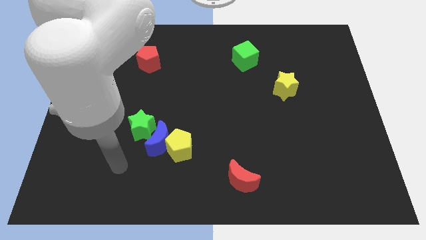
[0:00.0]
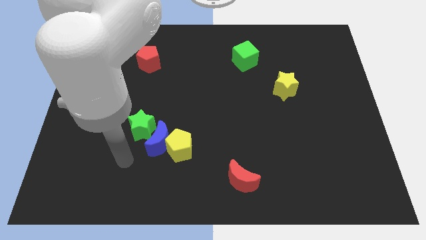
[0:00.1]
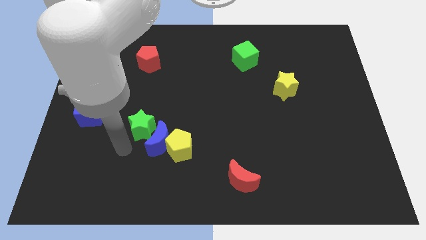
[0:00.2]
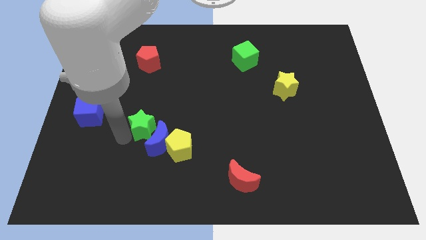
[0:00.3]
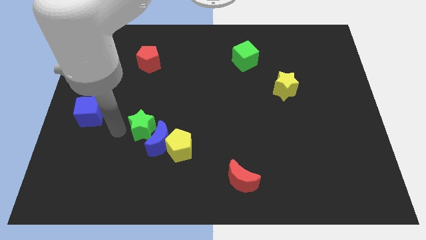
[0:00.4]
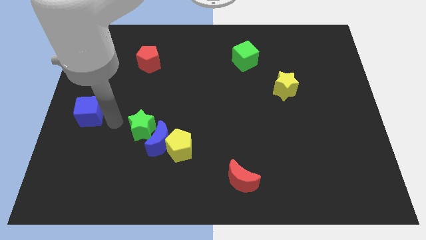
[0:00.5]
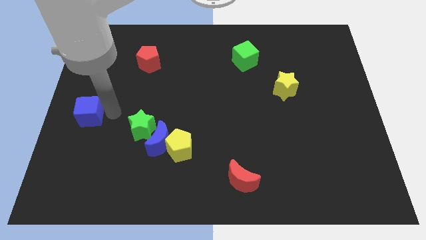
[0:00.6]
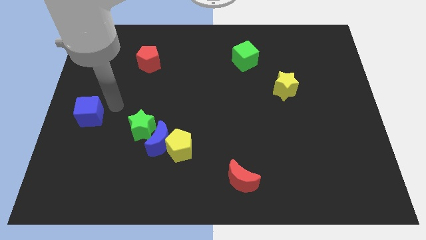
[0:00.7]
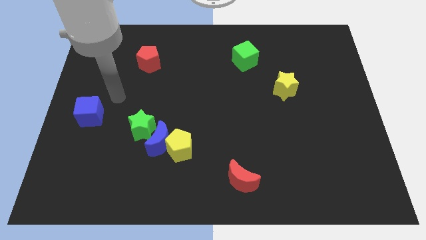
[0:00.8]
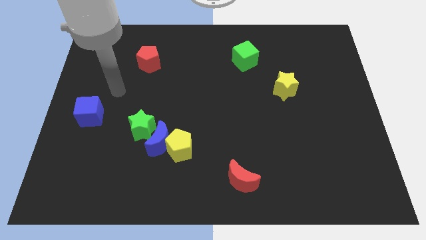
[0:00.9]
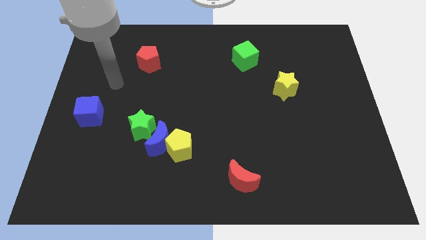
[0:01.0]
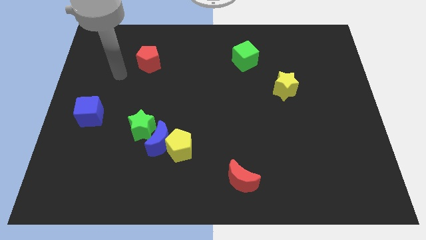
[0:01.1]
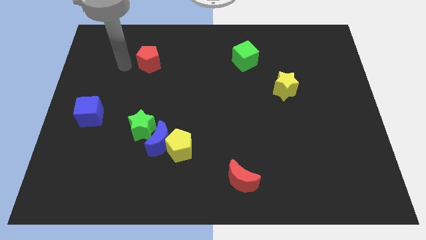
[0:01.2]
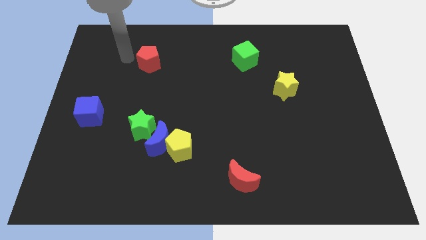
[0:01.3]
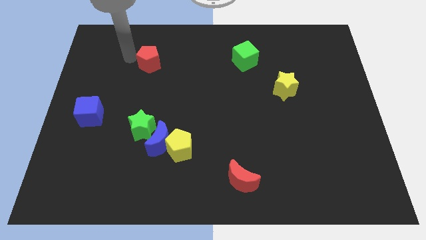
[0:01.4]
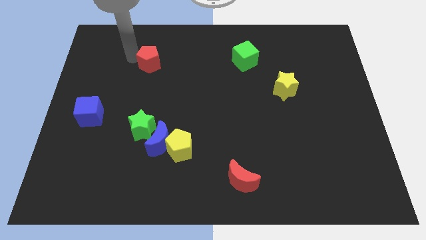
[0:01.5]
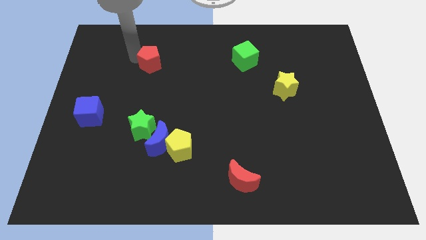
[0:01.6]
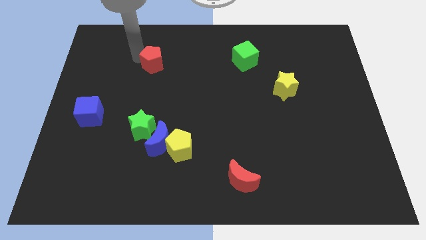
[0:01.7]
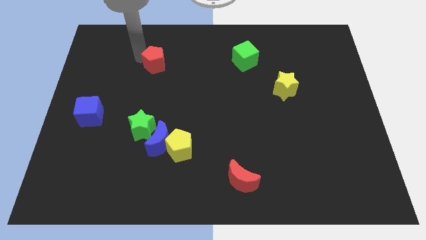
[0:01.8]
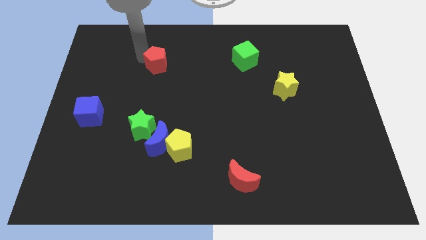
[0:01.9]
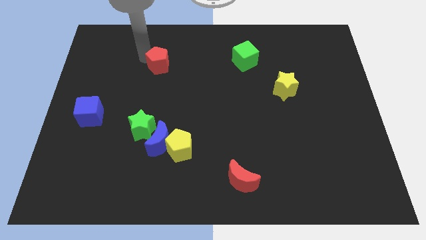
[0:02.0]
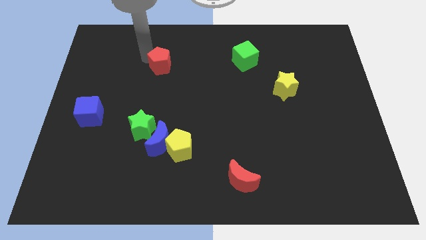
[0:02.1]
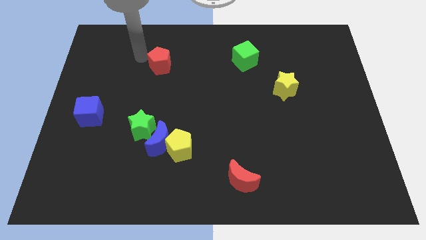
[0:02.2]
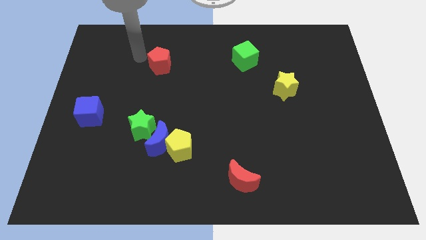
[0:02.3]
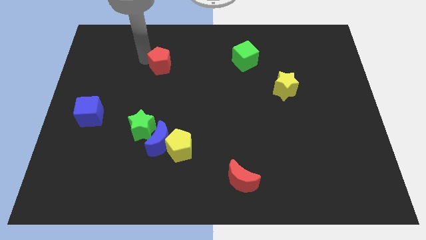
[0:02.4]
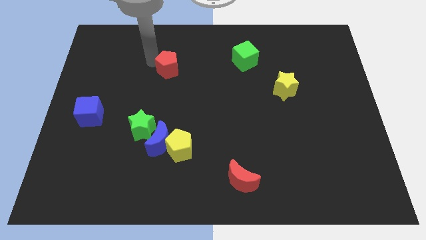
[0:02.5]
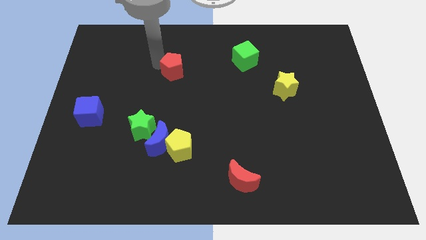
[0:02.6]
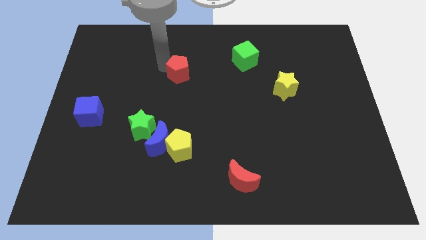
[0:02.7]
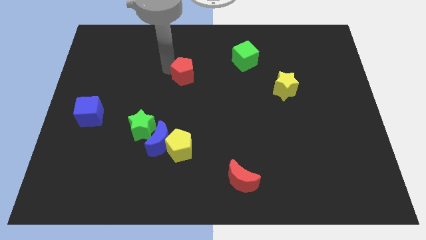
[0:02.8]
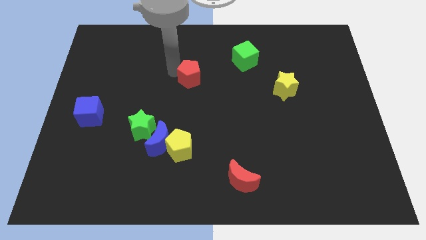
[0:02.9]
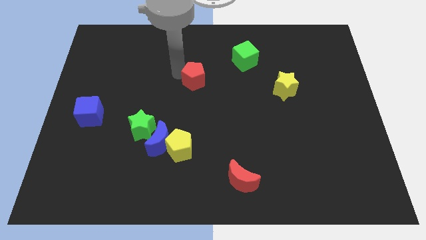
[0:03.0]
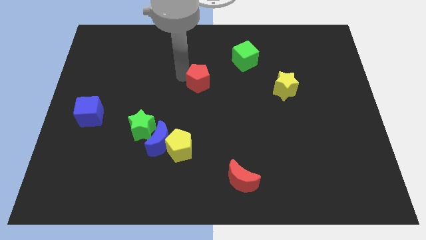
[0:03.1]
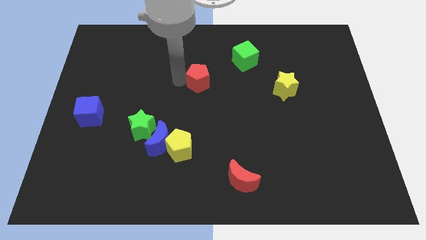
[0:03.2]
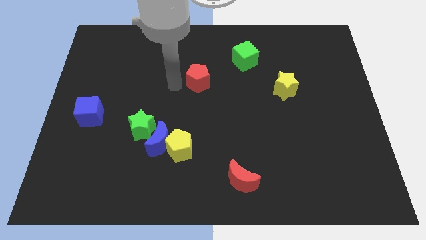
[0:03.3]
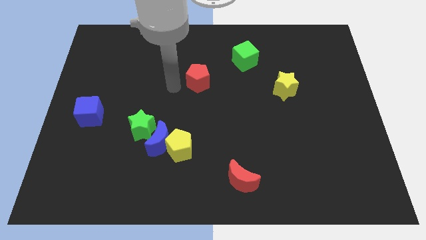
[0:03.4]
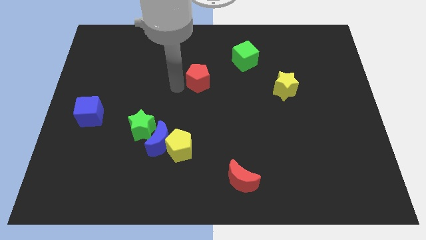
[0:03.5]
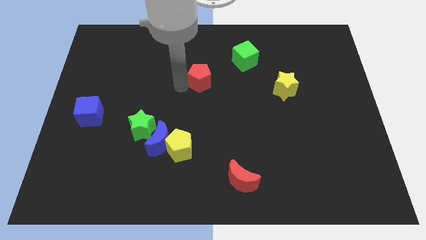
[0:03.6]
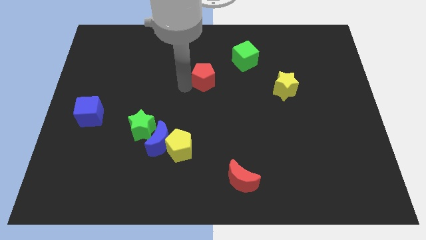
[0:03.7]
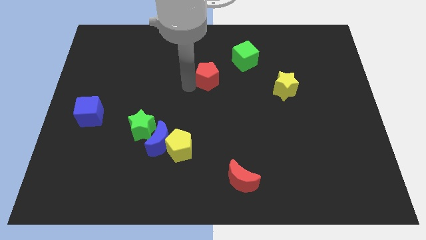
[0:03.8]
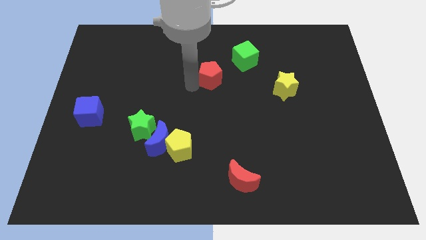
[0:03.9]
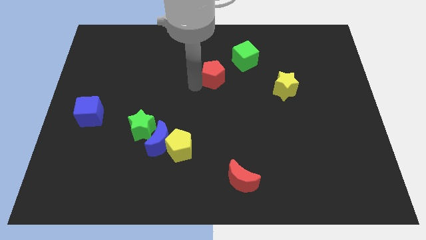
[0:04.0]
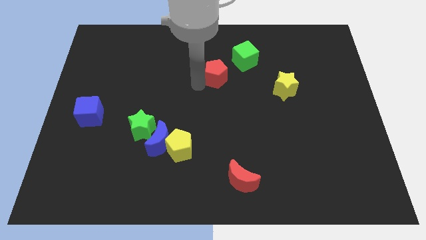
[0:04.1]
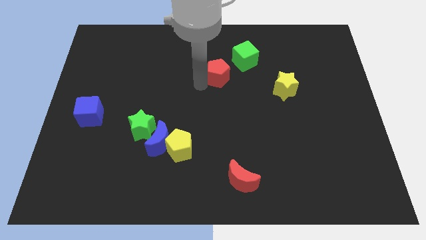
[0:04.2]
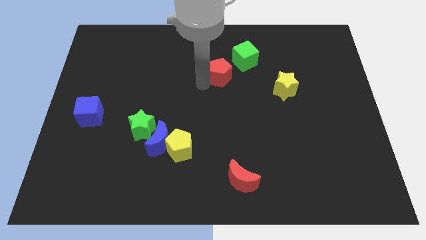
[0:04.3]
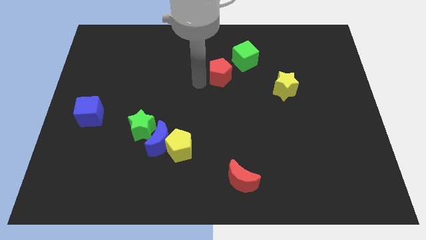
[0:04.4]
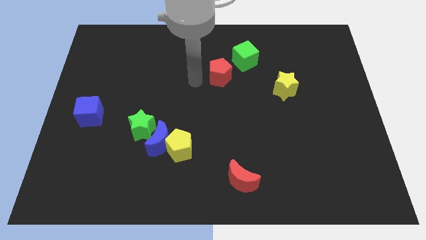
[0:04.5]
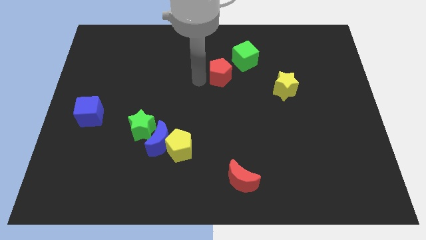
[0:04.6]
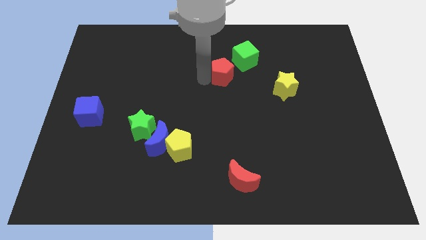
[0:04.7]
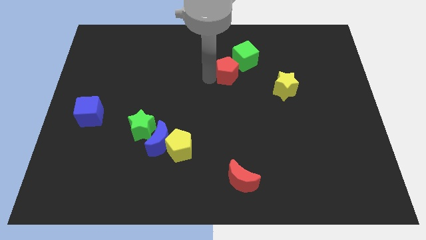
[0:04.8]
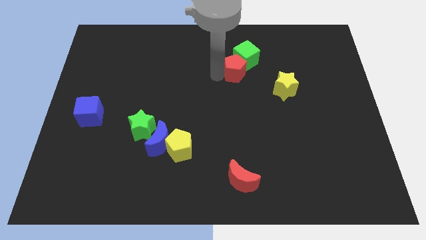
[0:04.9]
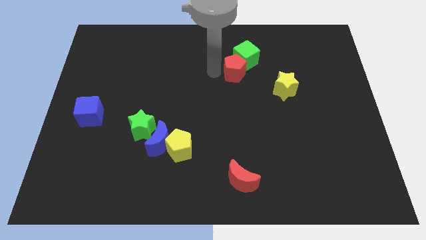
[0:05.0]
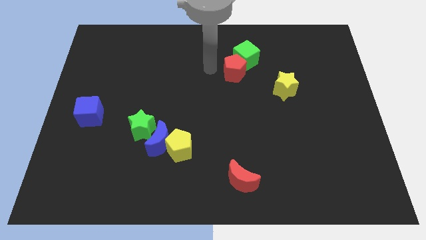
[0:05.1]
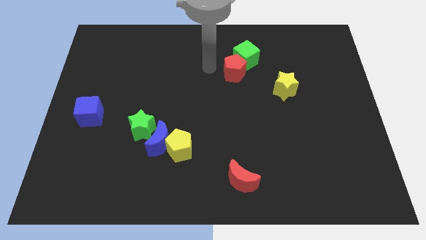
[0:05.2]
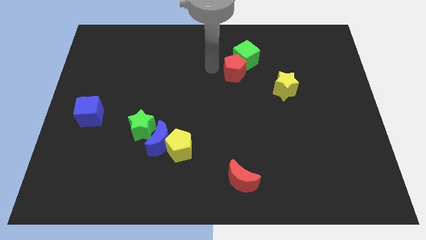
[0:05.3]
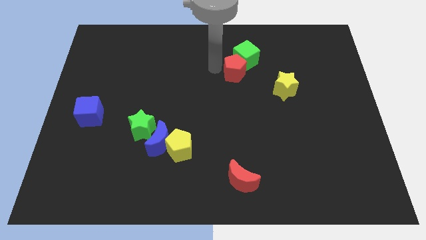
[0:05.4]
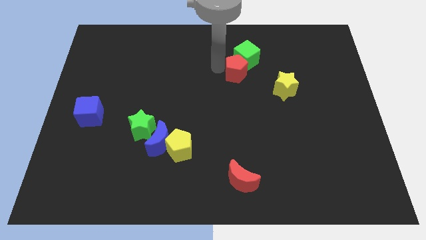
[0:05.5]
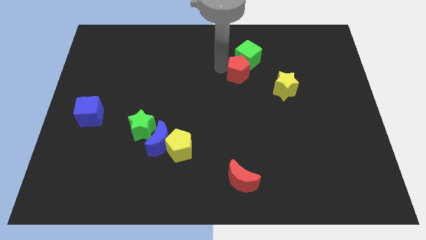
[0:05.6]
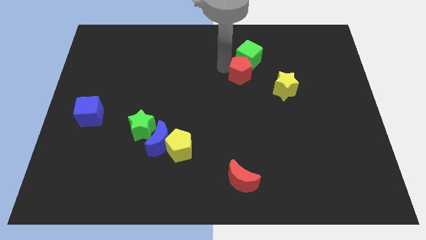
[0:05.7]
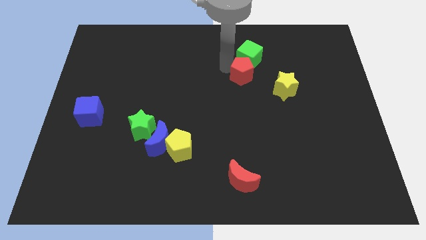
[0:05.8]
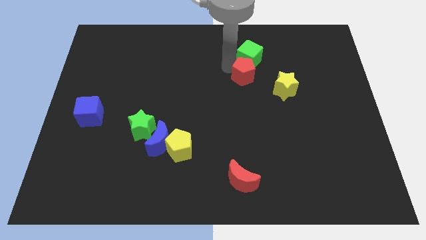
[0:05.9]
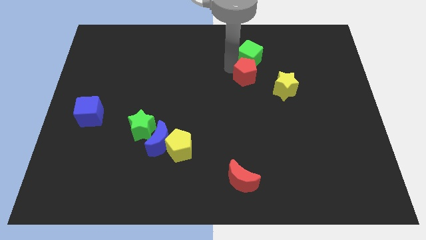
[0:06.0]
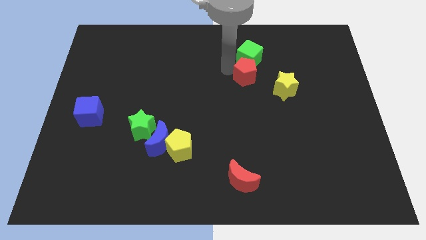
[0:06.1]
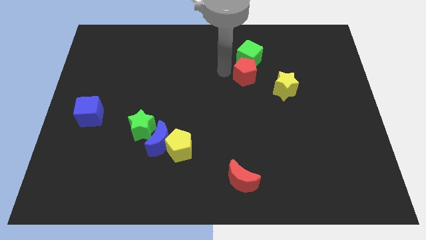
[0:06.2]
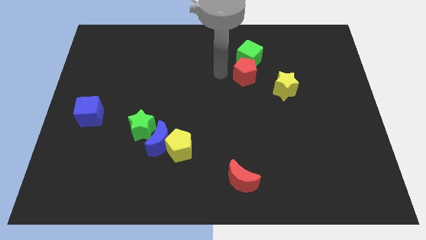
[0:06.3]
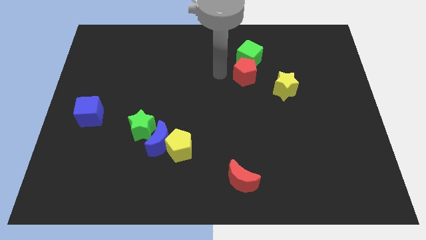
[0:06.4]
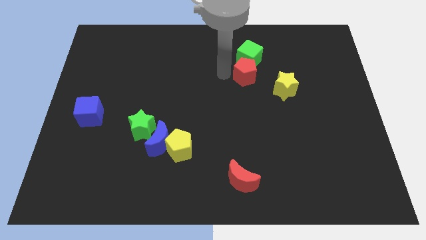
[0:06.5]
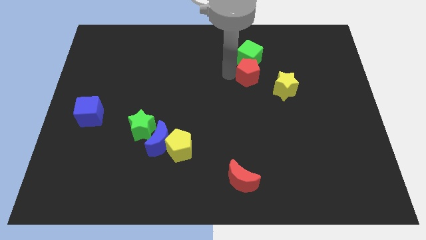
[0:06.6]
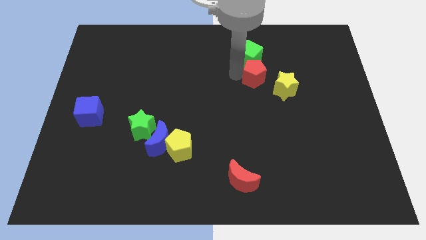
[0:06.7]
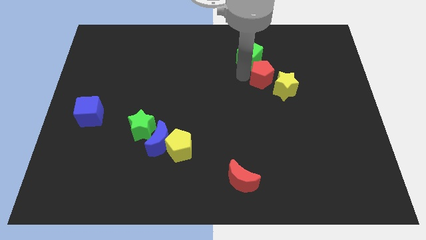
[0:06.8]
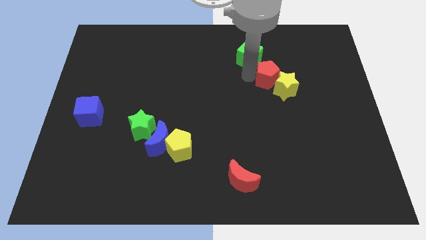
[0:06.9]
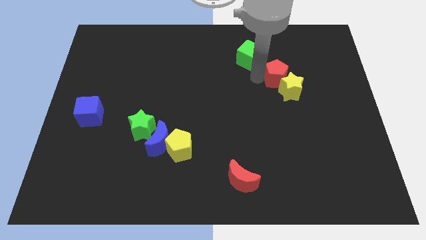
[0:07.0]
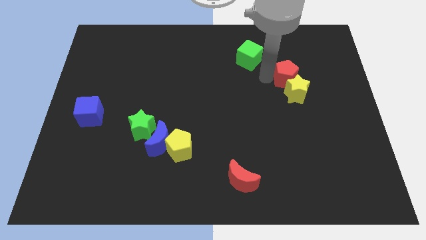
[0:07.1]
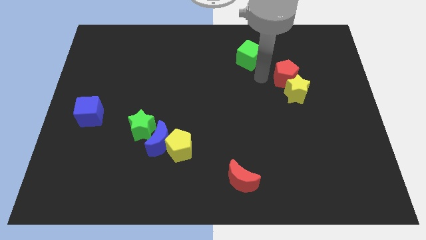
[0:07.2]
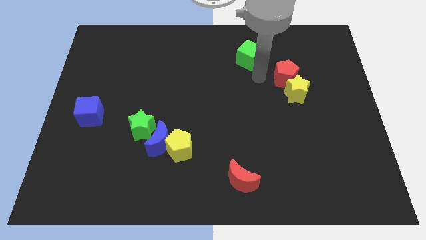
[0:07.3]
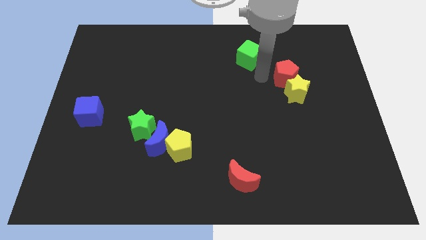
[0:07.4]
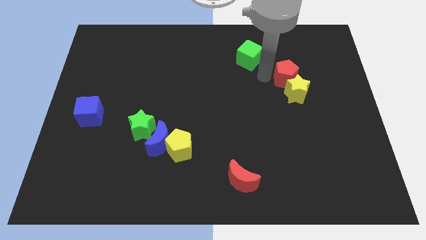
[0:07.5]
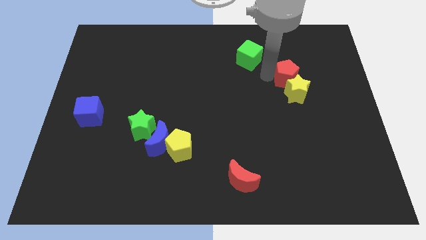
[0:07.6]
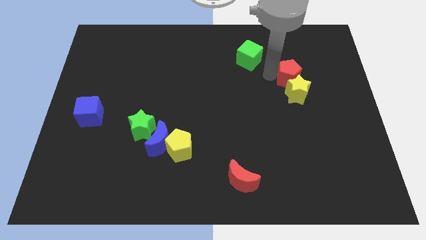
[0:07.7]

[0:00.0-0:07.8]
move the red pentagon diagonally up and to the right of the yellow star
